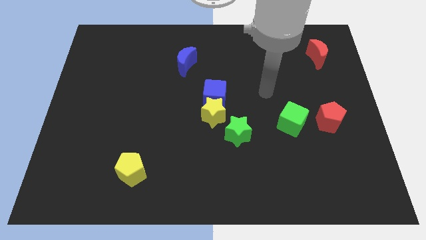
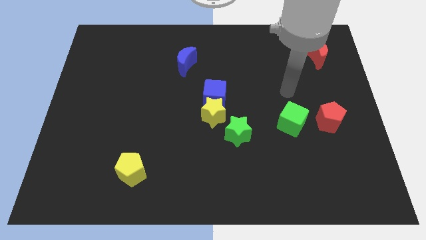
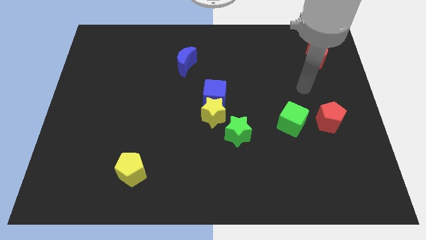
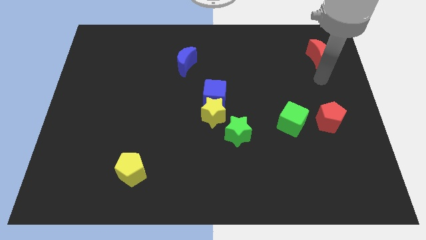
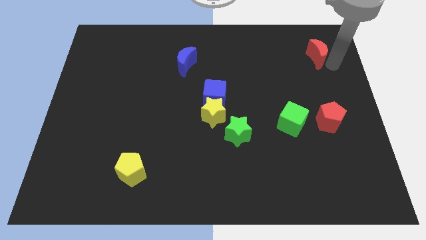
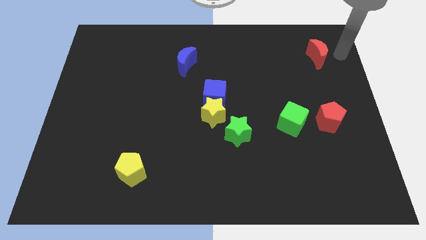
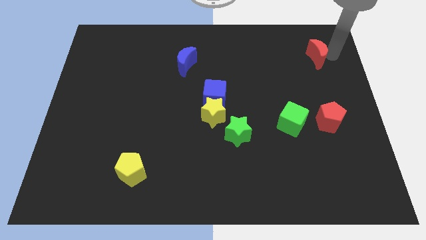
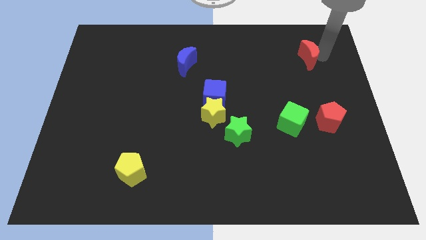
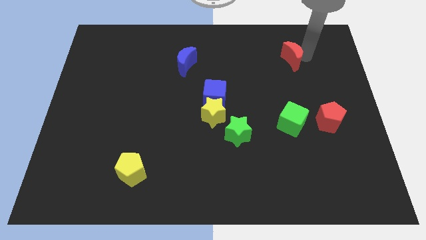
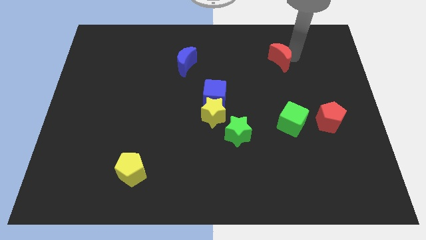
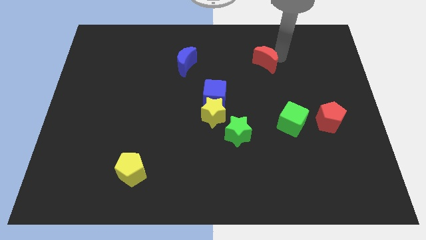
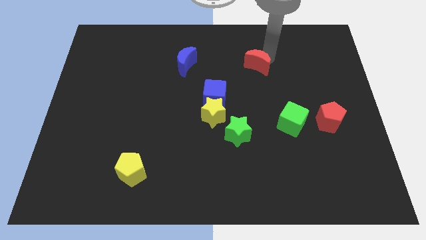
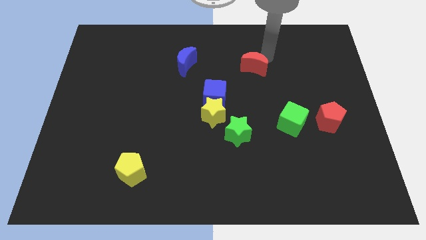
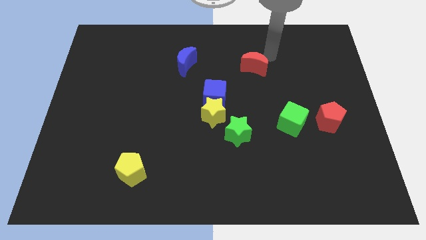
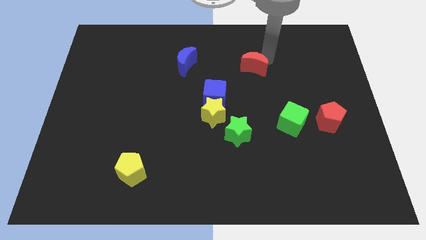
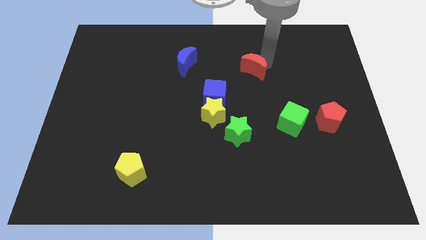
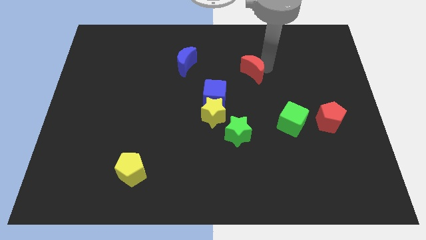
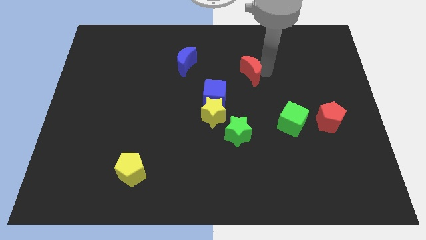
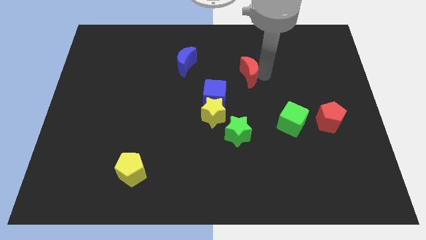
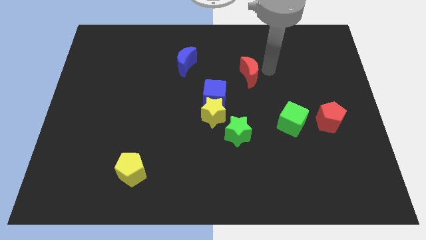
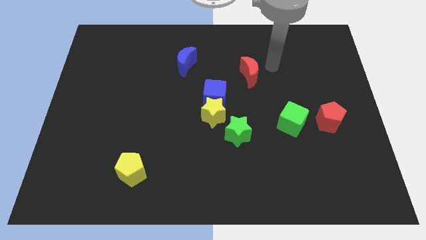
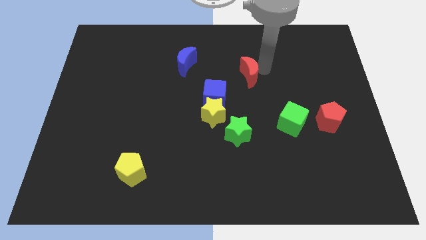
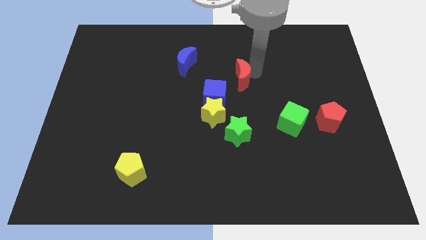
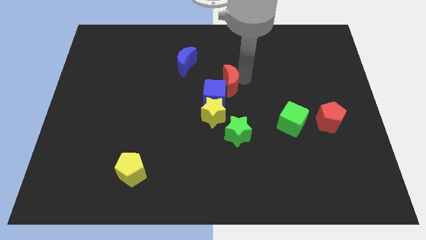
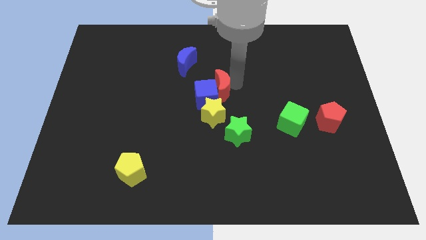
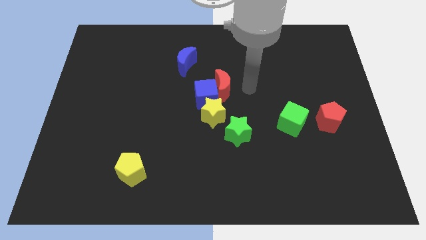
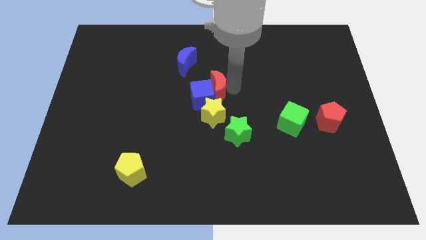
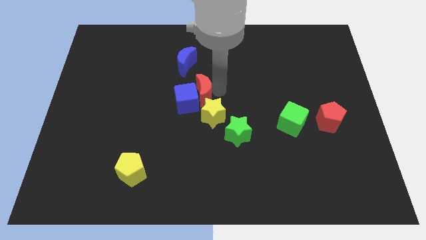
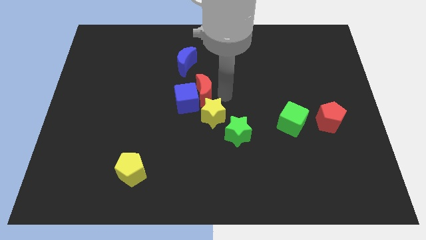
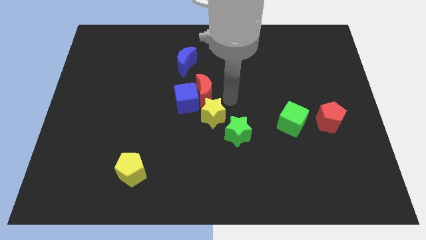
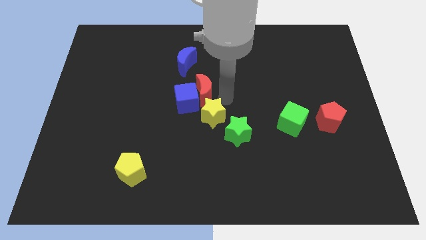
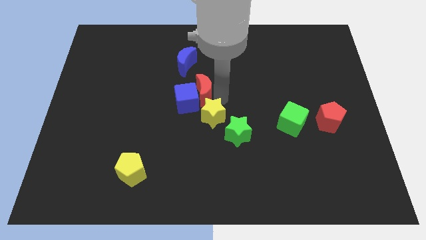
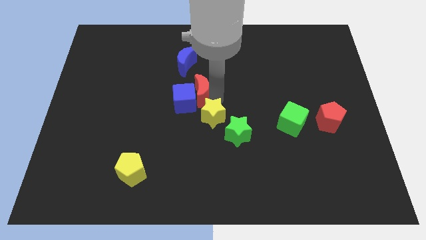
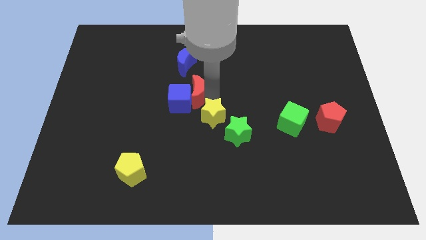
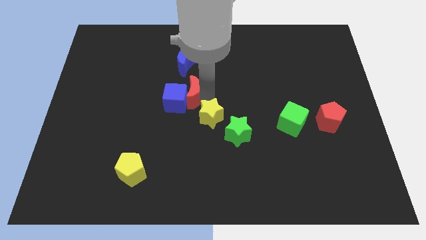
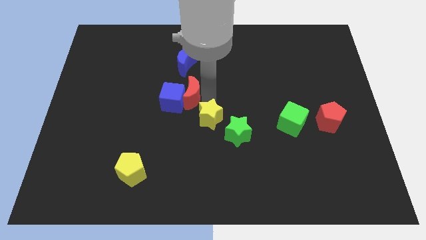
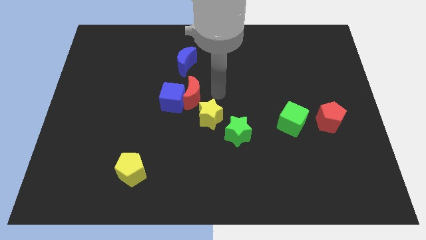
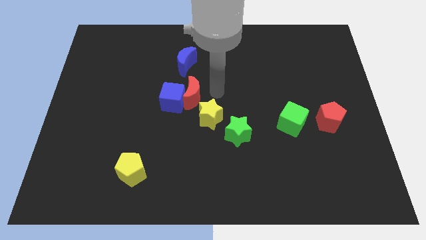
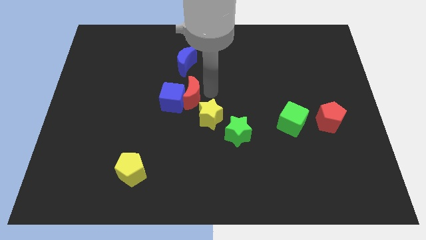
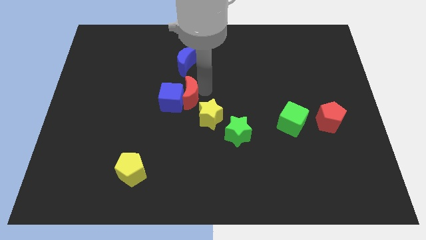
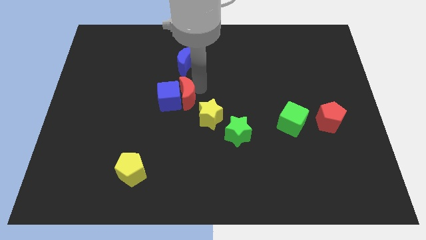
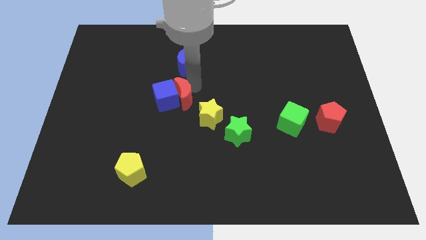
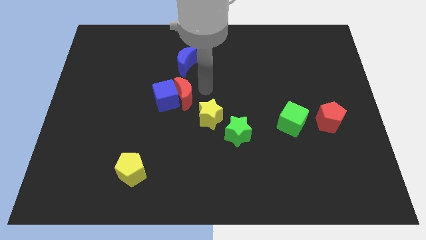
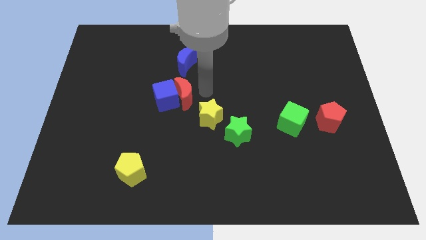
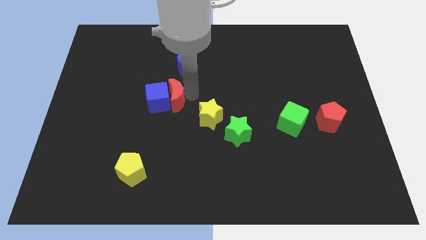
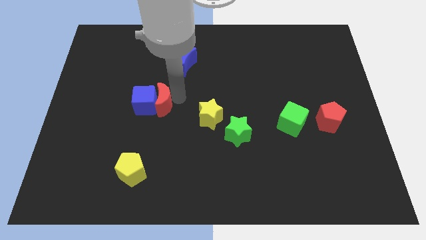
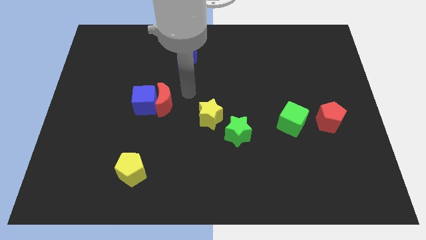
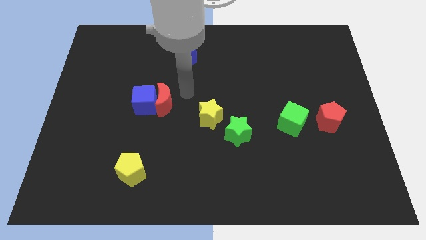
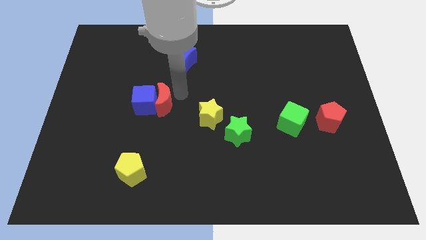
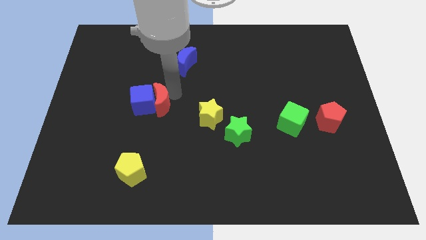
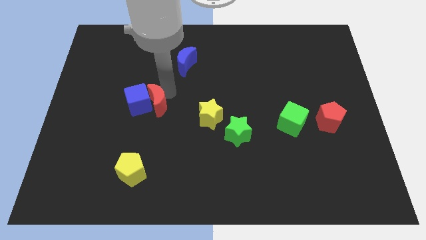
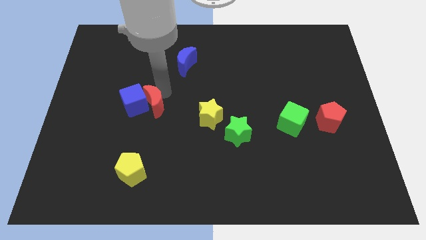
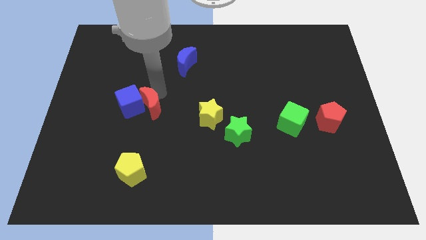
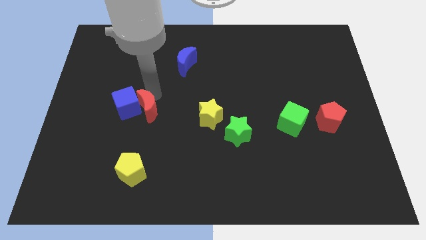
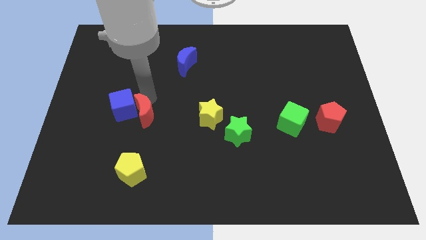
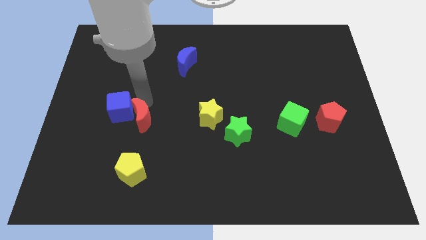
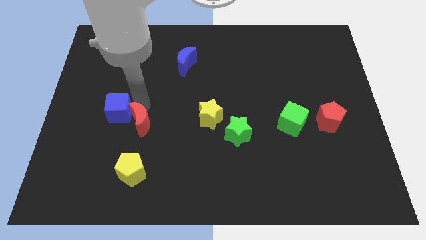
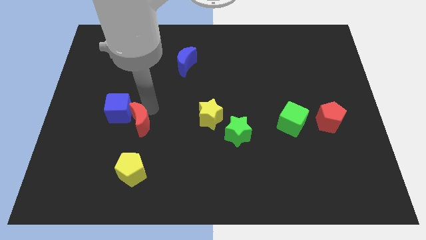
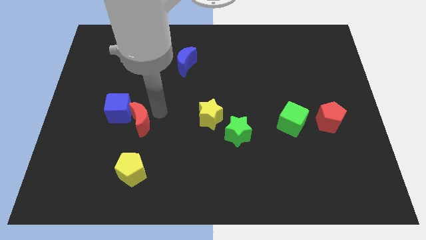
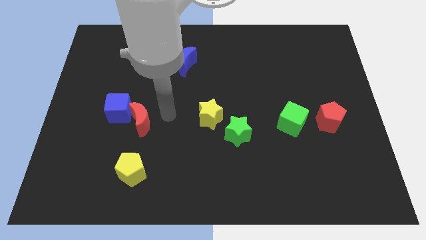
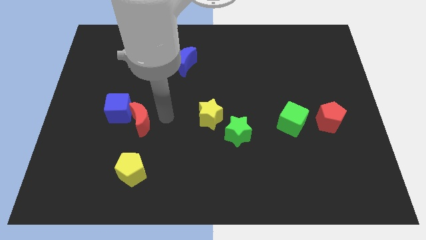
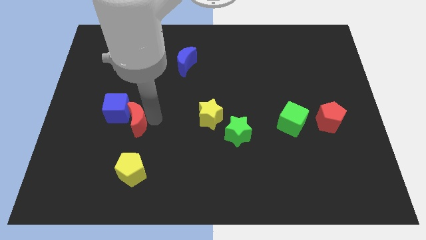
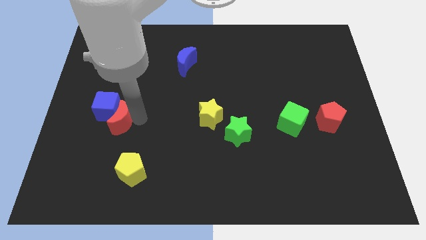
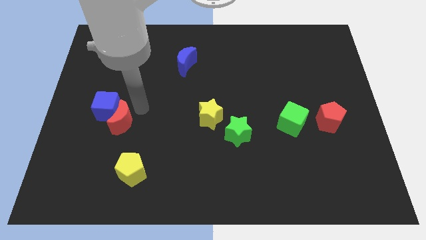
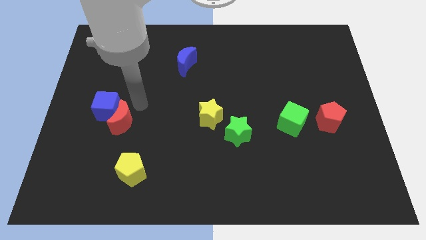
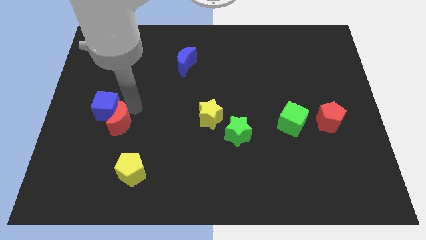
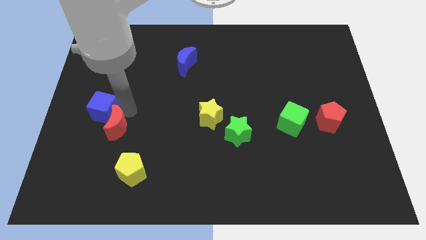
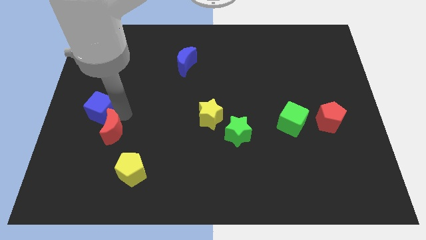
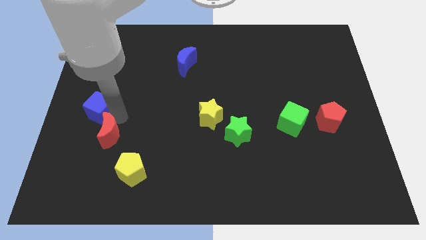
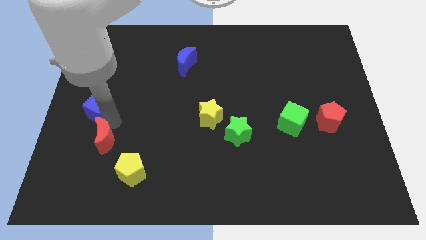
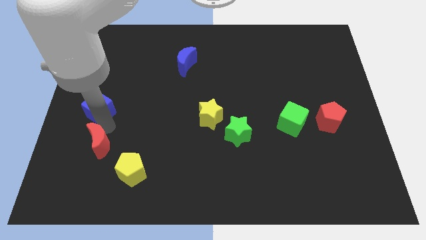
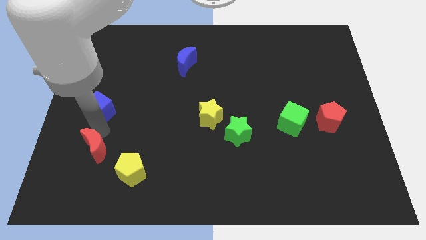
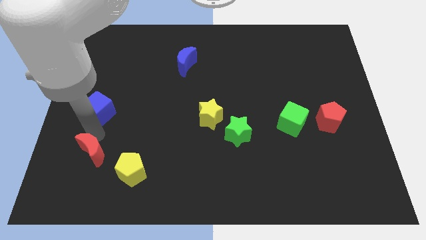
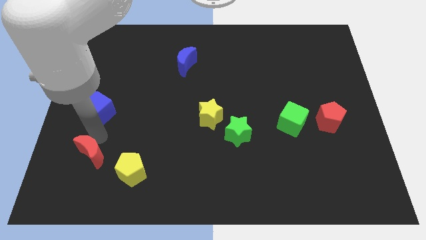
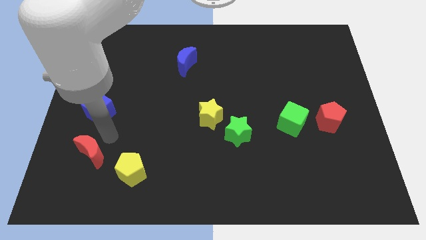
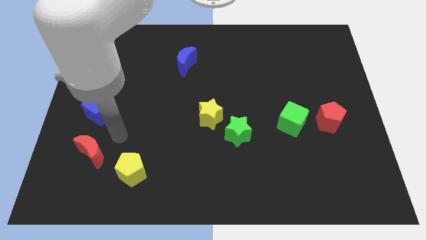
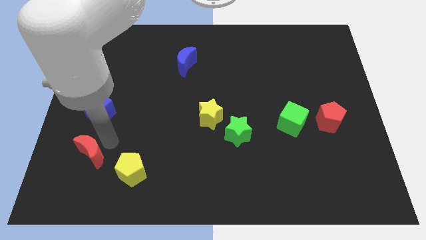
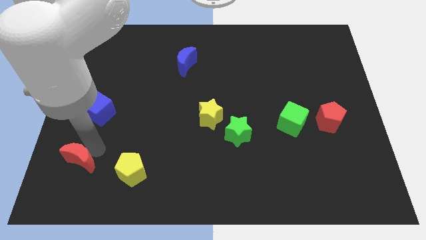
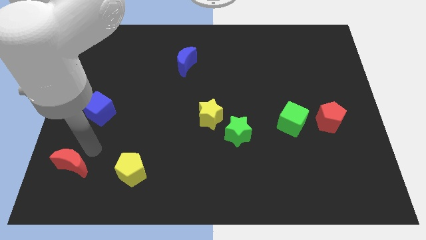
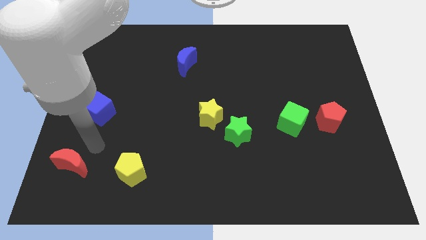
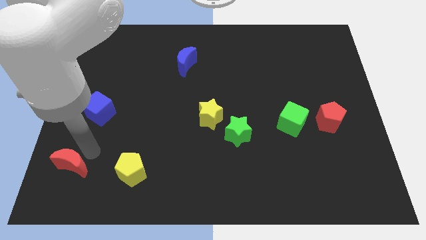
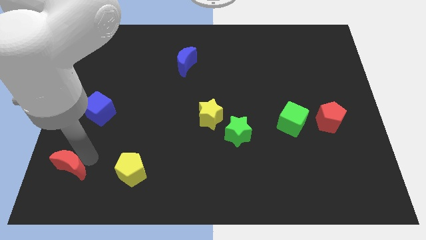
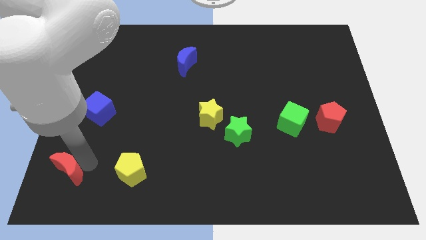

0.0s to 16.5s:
slide the red moon to the lower left corner
